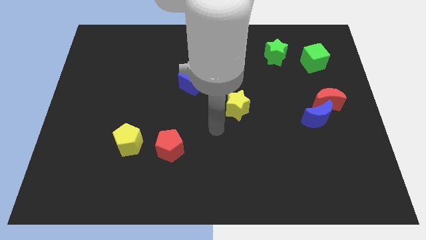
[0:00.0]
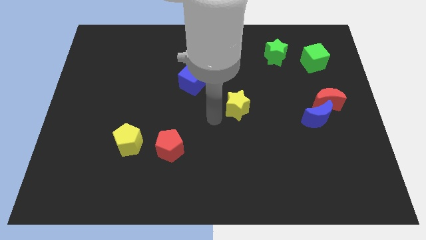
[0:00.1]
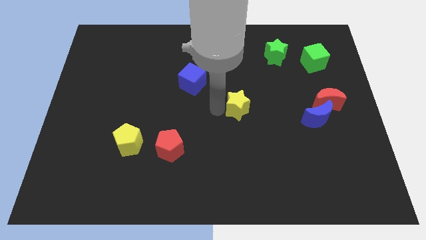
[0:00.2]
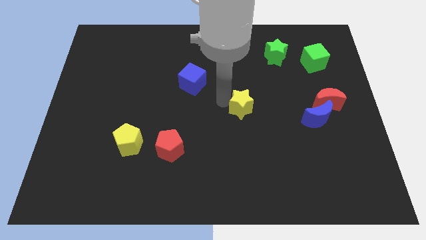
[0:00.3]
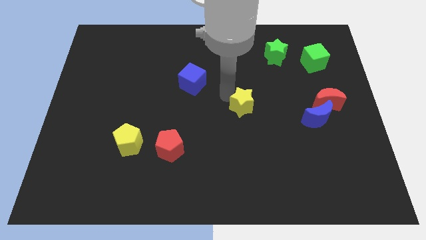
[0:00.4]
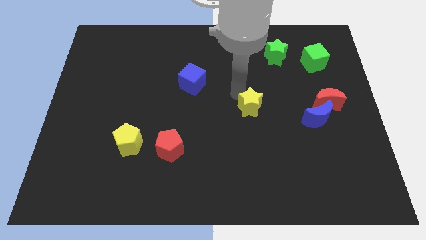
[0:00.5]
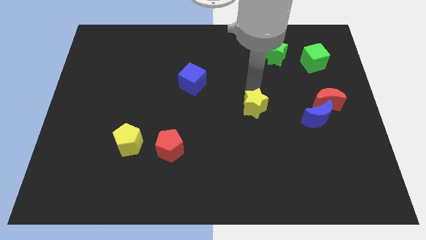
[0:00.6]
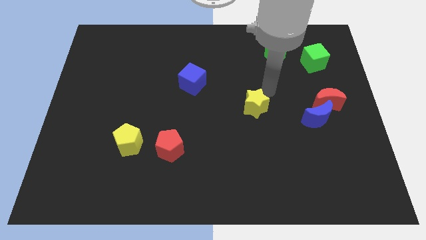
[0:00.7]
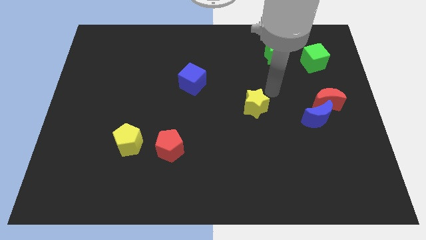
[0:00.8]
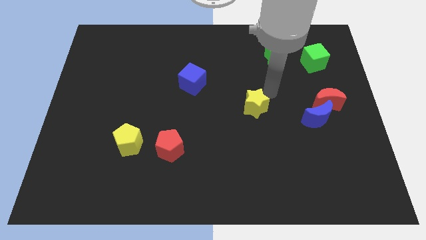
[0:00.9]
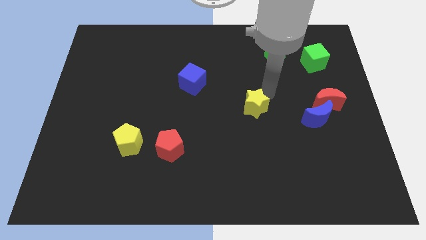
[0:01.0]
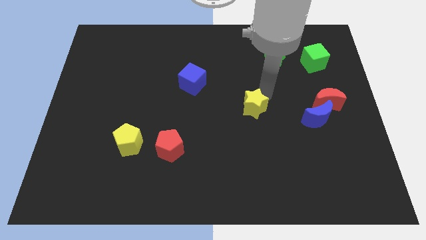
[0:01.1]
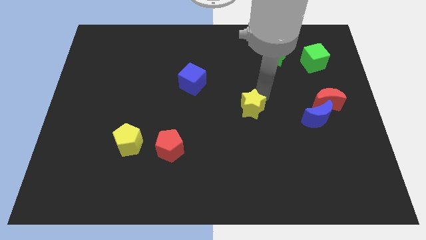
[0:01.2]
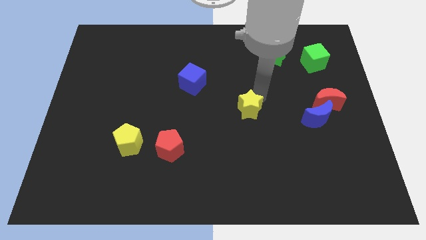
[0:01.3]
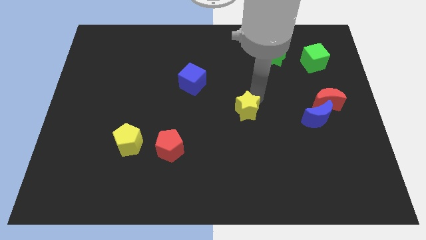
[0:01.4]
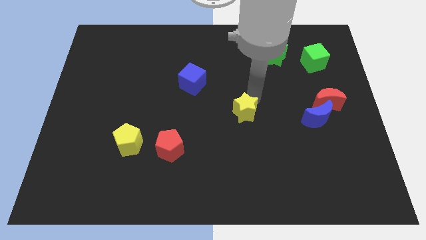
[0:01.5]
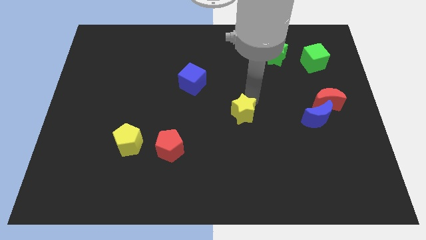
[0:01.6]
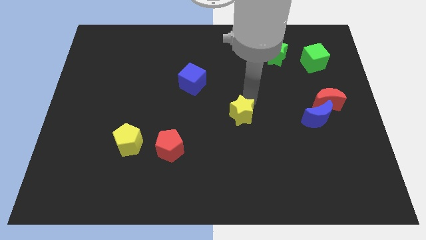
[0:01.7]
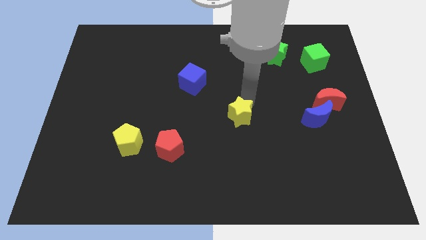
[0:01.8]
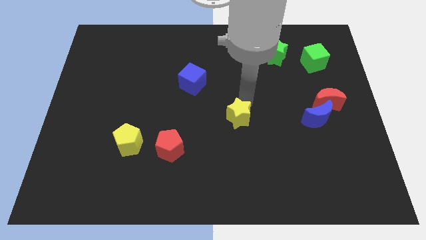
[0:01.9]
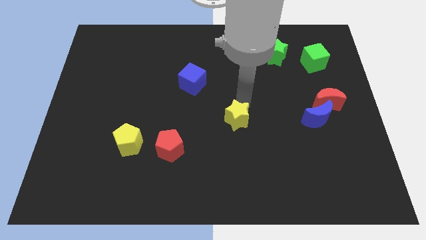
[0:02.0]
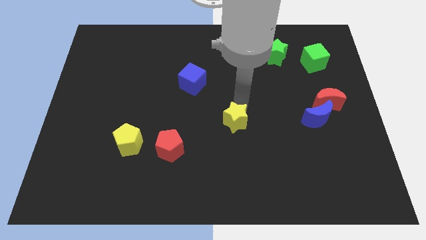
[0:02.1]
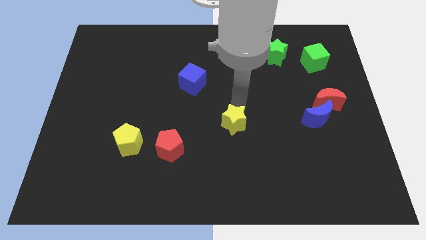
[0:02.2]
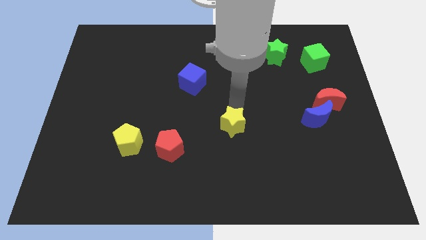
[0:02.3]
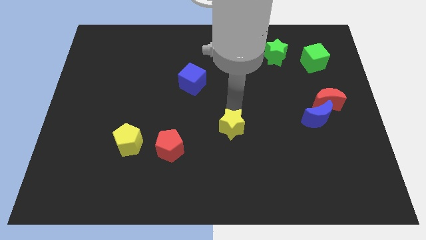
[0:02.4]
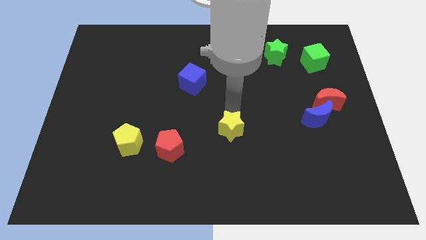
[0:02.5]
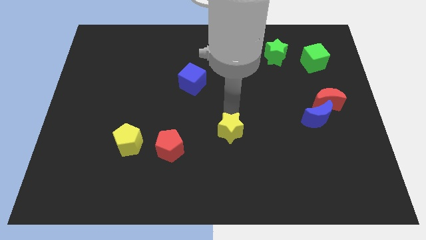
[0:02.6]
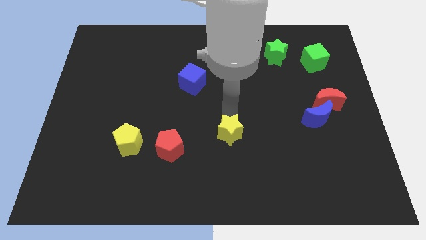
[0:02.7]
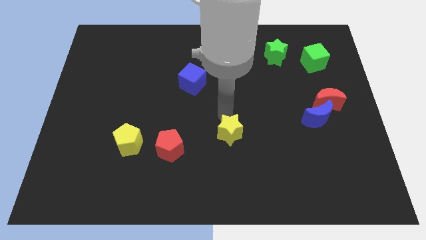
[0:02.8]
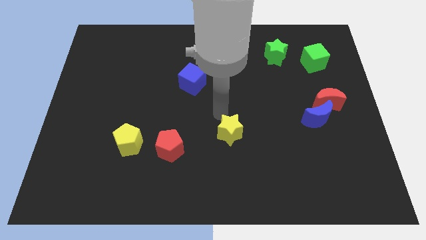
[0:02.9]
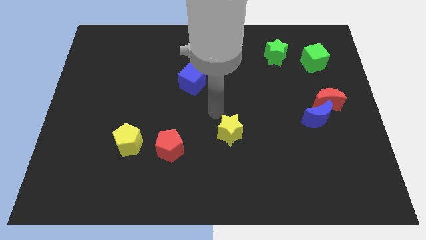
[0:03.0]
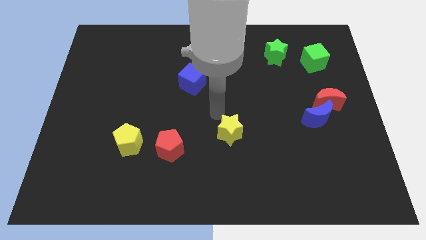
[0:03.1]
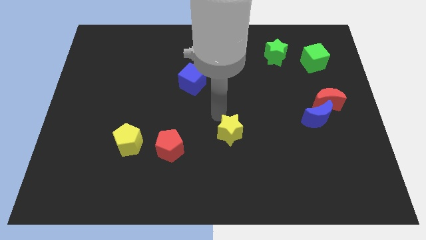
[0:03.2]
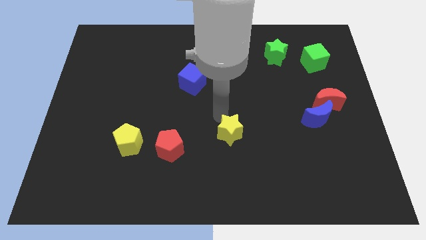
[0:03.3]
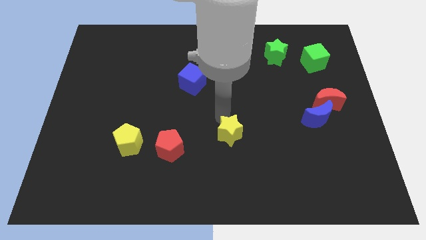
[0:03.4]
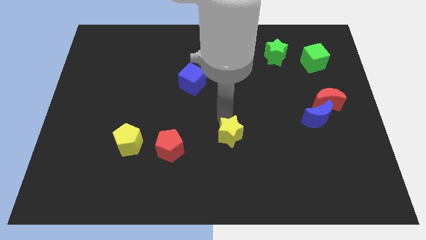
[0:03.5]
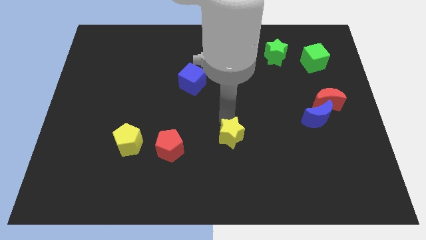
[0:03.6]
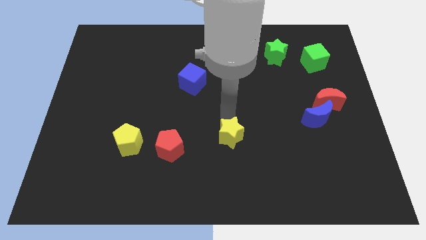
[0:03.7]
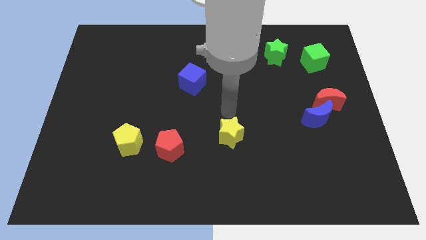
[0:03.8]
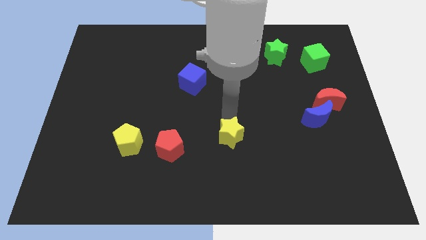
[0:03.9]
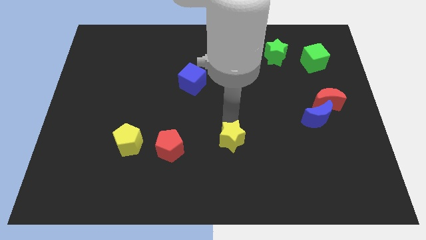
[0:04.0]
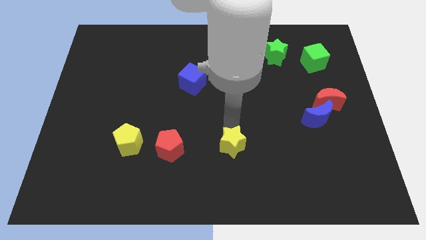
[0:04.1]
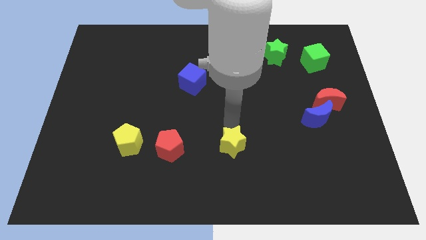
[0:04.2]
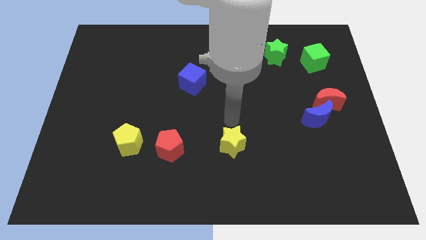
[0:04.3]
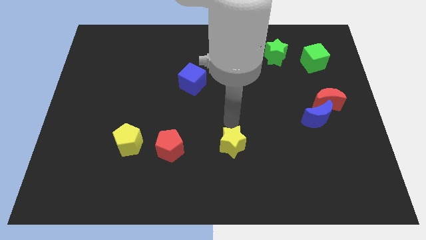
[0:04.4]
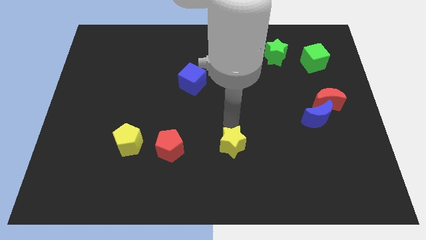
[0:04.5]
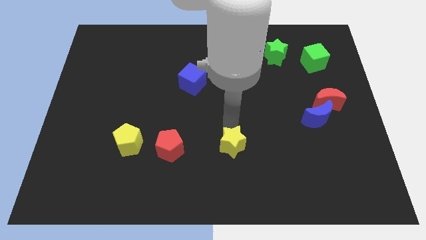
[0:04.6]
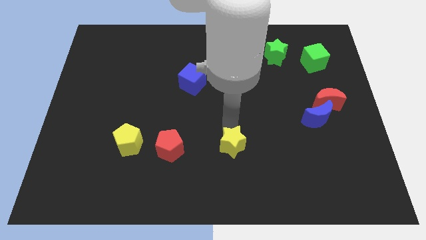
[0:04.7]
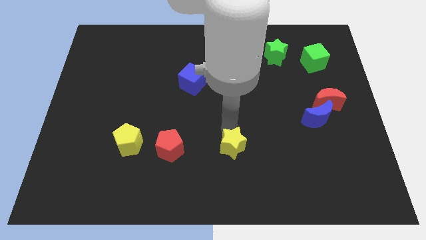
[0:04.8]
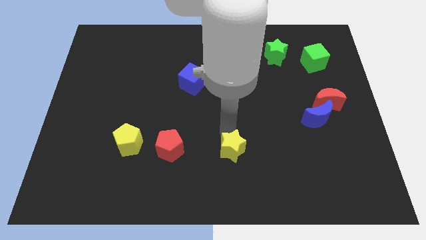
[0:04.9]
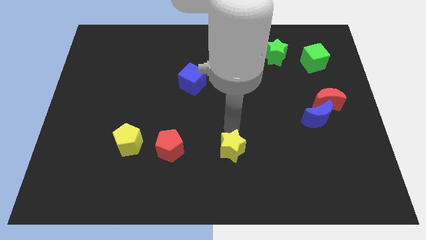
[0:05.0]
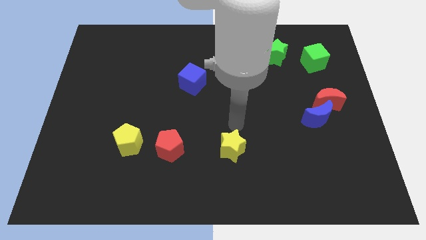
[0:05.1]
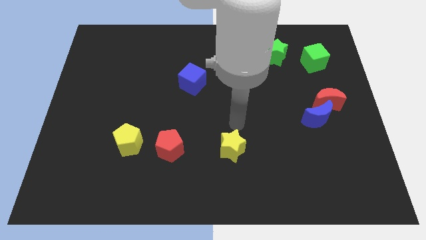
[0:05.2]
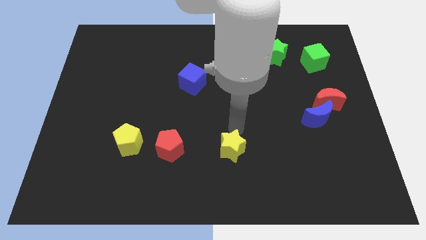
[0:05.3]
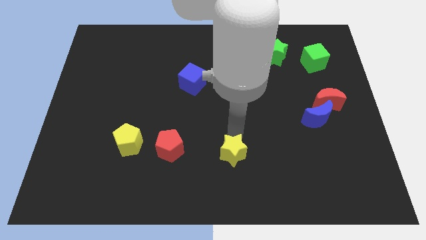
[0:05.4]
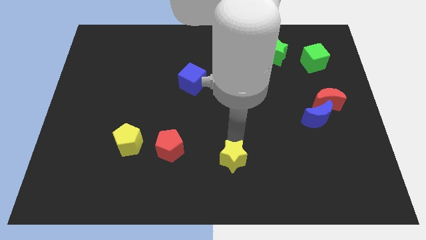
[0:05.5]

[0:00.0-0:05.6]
put the yellow star to the bottom side

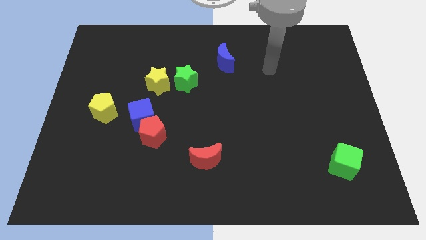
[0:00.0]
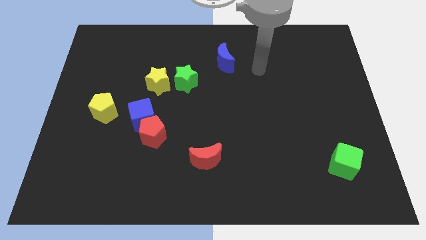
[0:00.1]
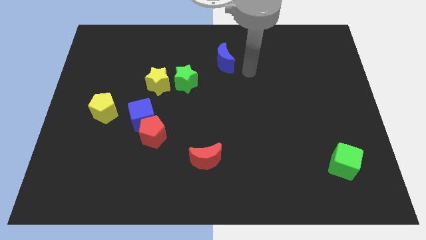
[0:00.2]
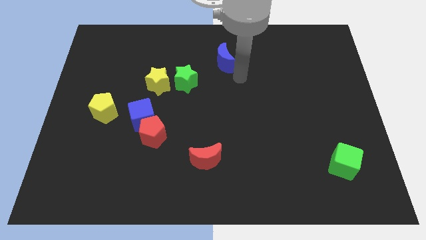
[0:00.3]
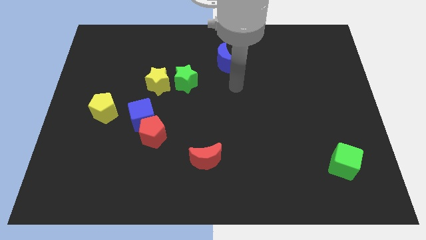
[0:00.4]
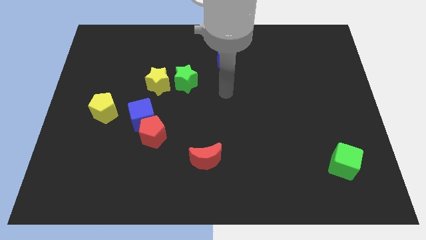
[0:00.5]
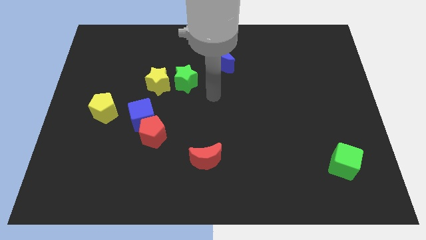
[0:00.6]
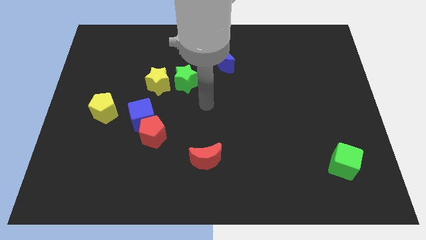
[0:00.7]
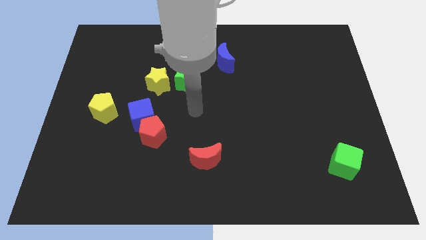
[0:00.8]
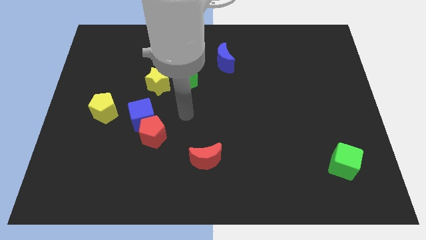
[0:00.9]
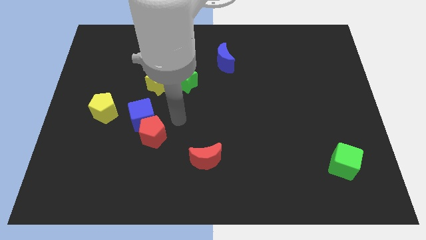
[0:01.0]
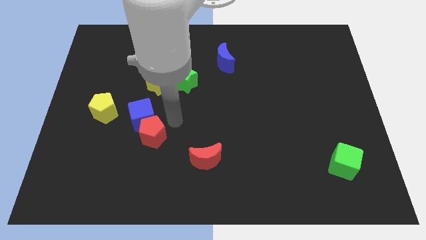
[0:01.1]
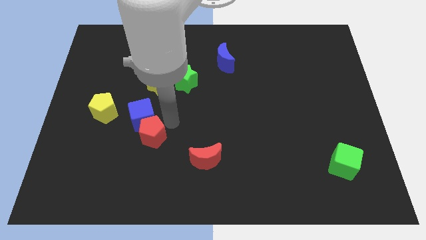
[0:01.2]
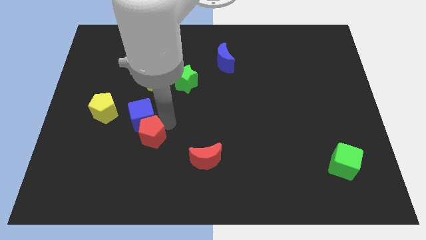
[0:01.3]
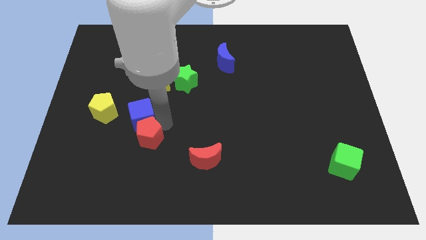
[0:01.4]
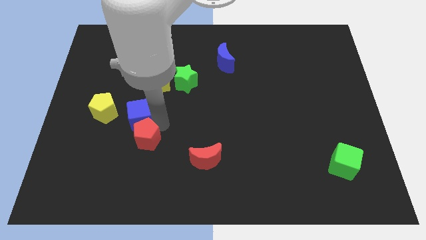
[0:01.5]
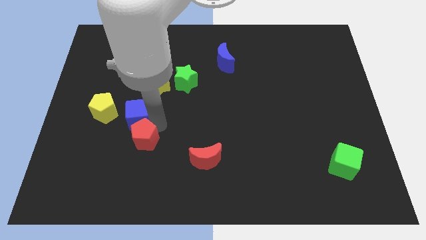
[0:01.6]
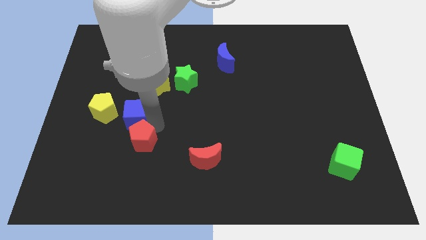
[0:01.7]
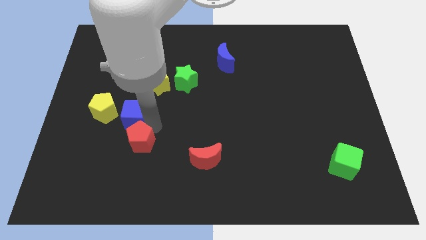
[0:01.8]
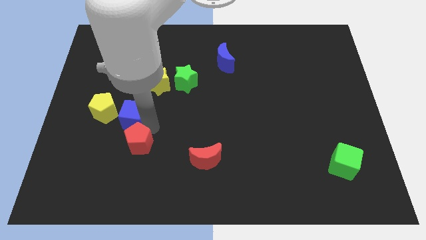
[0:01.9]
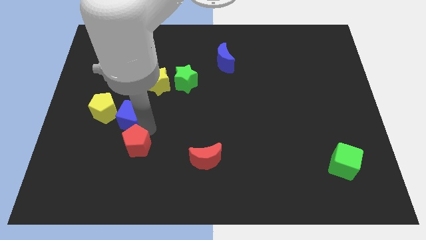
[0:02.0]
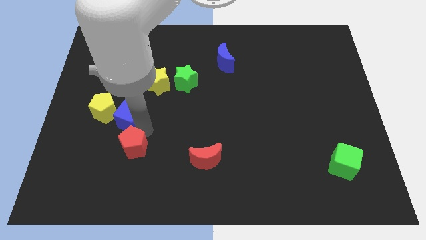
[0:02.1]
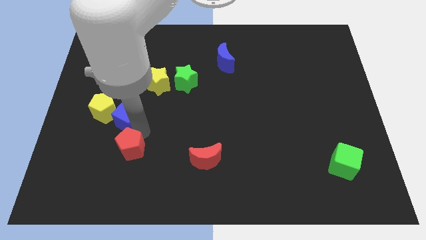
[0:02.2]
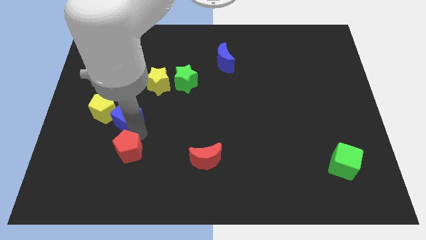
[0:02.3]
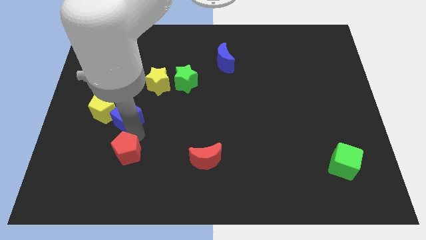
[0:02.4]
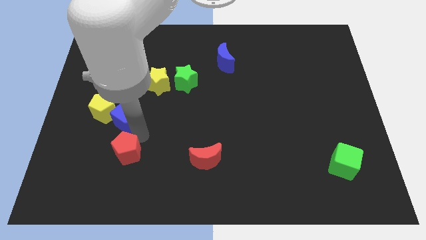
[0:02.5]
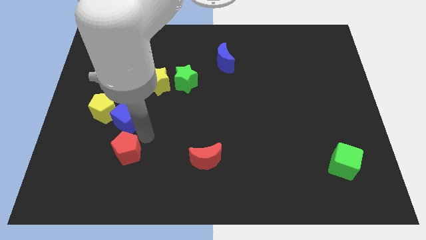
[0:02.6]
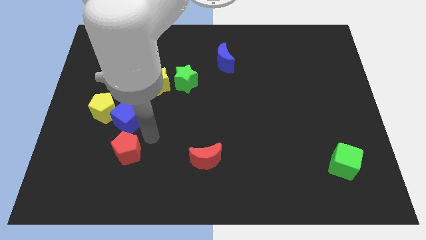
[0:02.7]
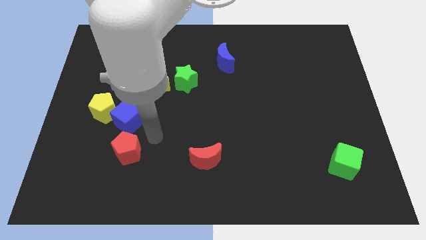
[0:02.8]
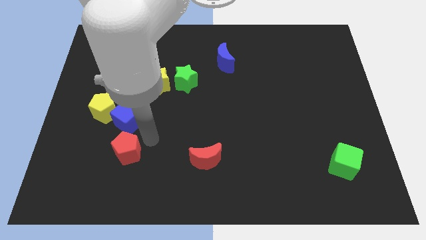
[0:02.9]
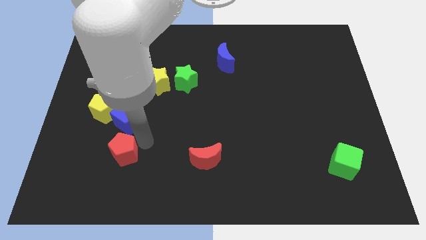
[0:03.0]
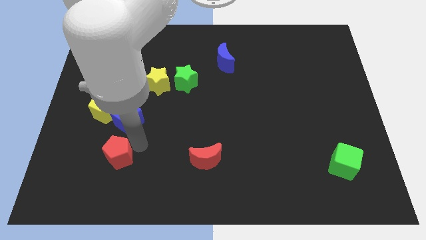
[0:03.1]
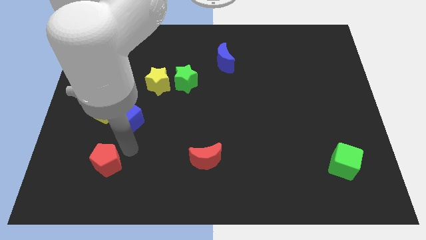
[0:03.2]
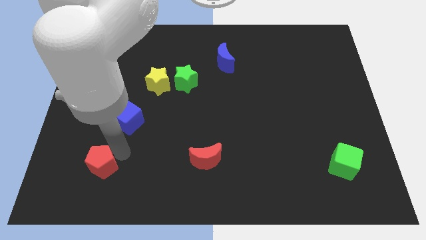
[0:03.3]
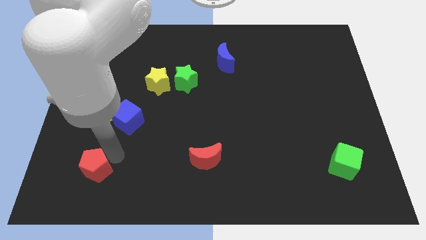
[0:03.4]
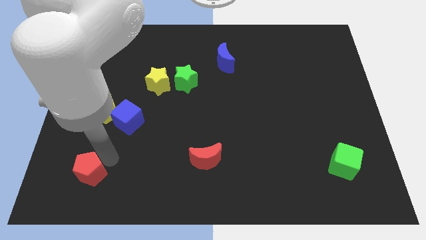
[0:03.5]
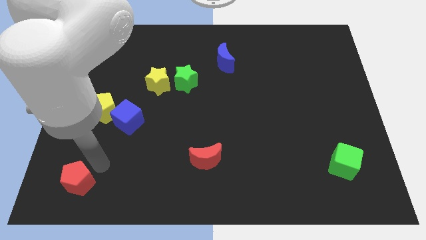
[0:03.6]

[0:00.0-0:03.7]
put the red pentagon to the bottom left of the board
